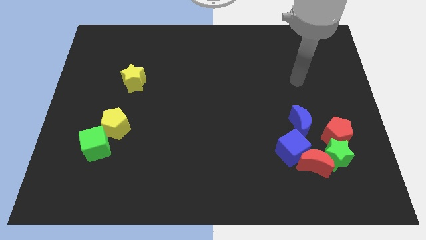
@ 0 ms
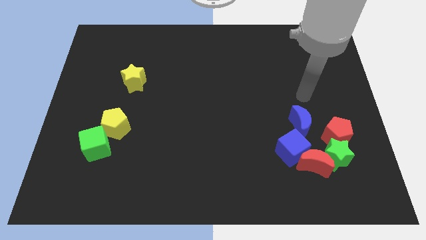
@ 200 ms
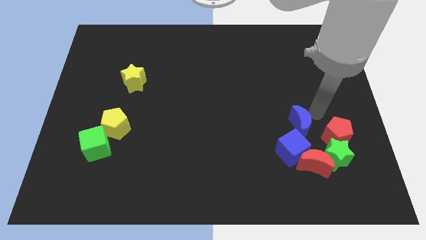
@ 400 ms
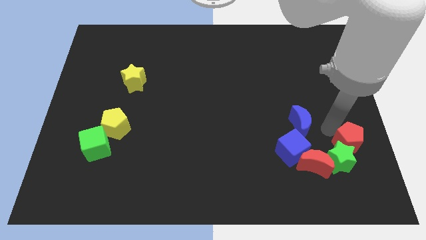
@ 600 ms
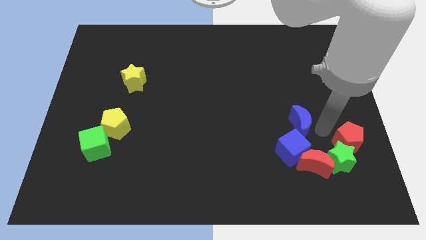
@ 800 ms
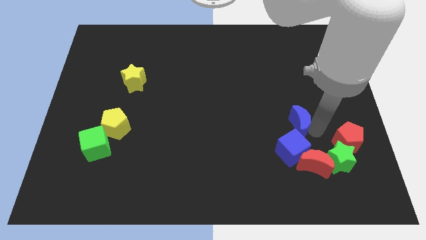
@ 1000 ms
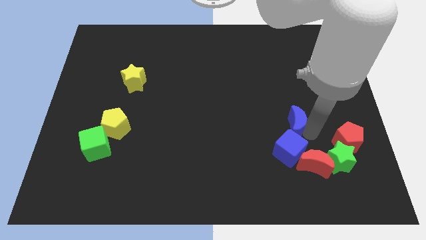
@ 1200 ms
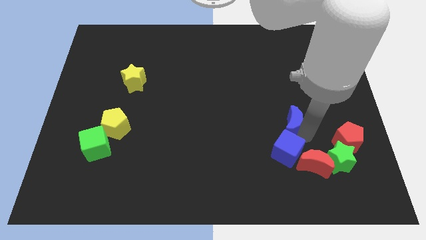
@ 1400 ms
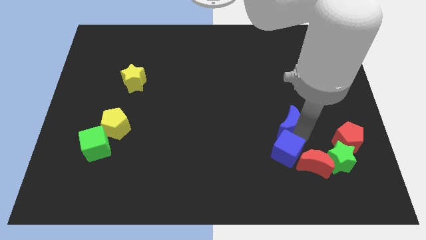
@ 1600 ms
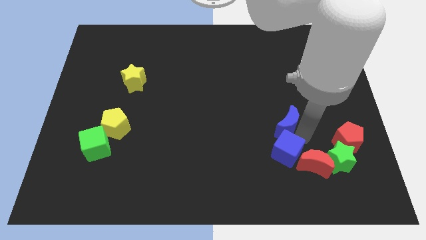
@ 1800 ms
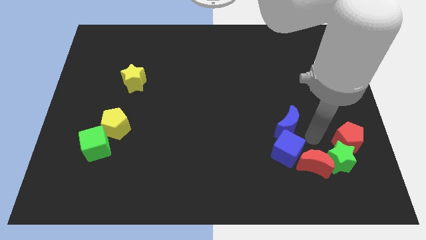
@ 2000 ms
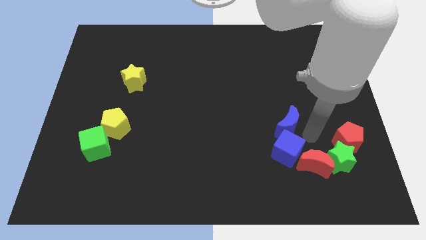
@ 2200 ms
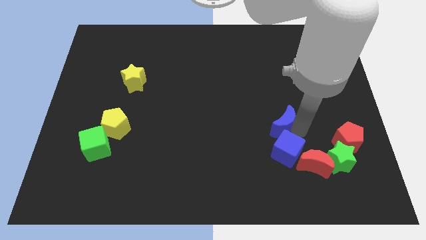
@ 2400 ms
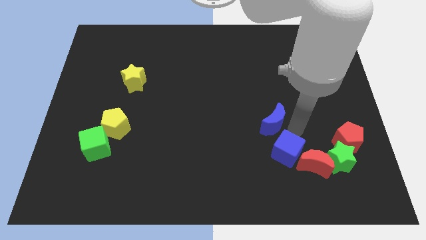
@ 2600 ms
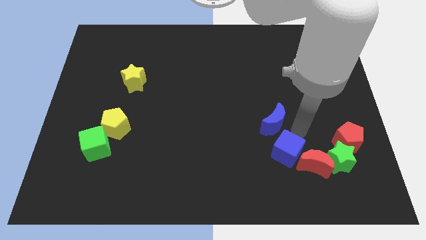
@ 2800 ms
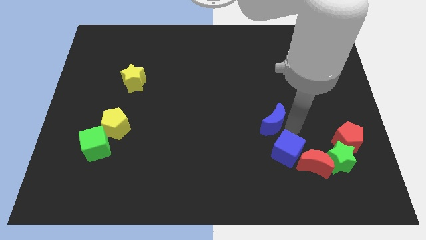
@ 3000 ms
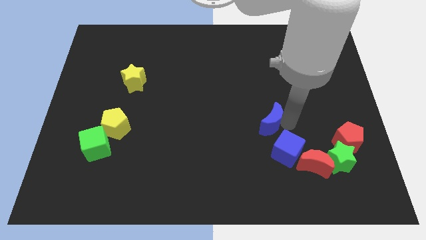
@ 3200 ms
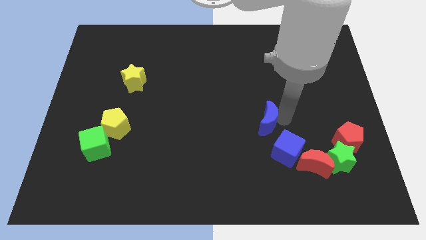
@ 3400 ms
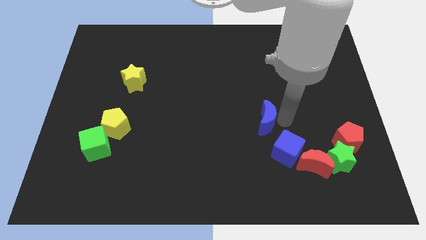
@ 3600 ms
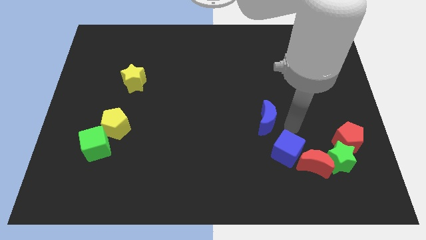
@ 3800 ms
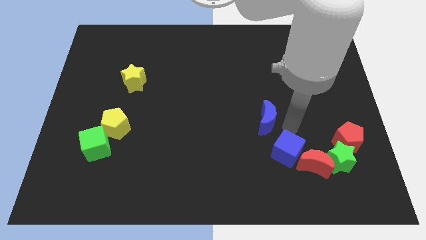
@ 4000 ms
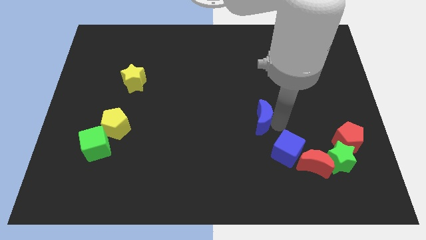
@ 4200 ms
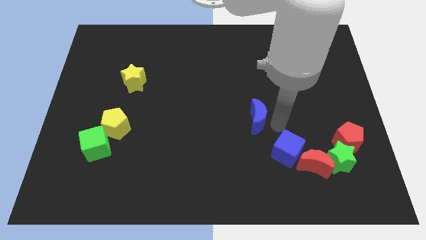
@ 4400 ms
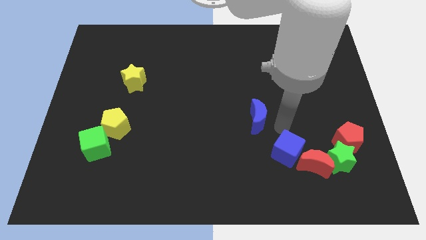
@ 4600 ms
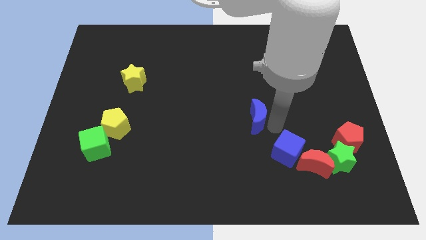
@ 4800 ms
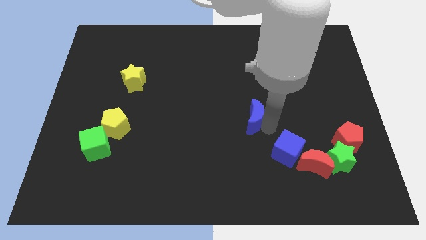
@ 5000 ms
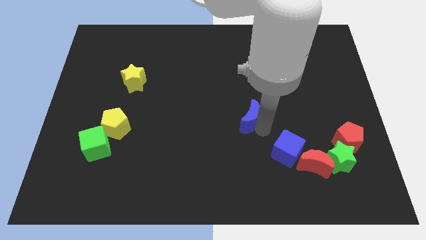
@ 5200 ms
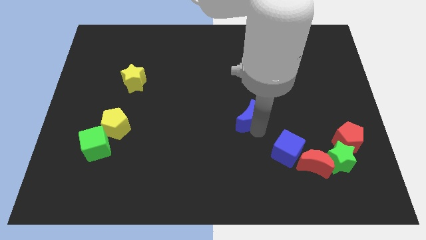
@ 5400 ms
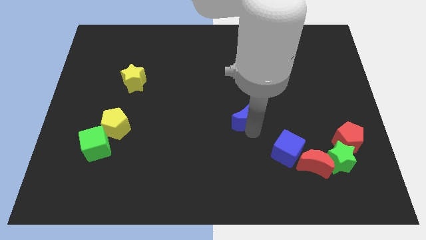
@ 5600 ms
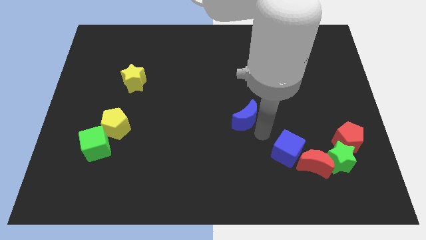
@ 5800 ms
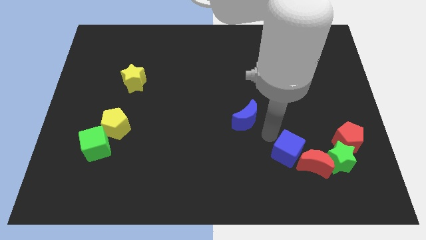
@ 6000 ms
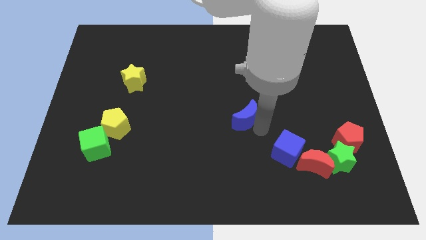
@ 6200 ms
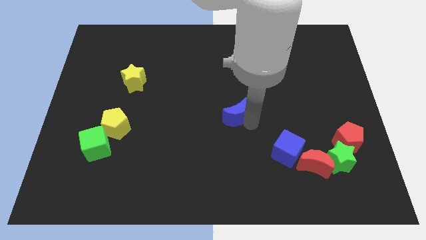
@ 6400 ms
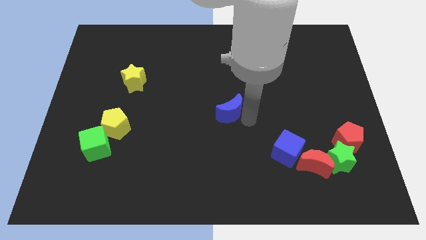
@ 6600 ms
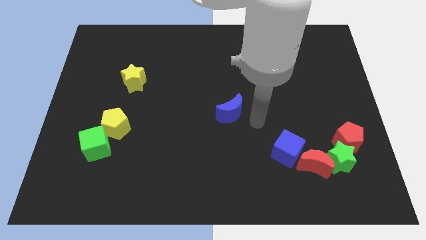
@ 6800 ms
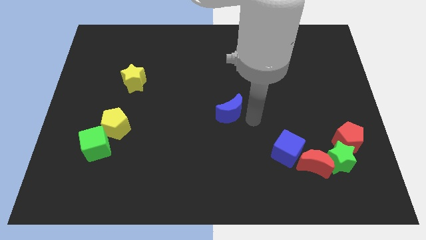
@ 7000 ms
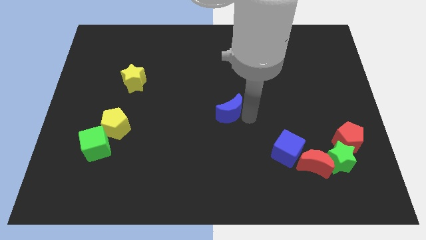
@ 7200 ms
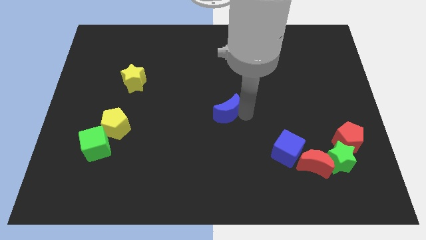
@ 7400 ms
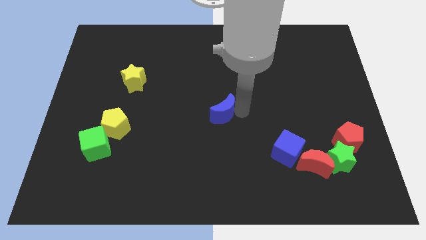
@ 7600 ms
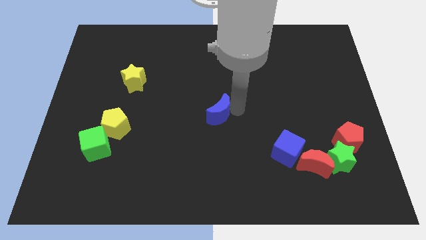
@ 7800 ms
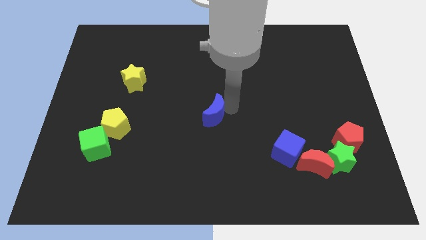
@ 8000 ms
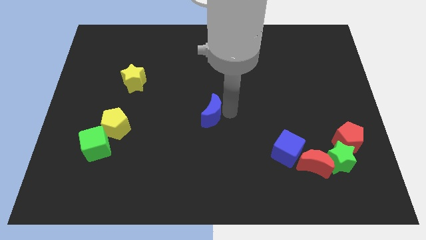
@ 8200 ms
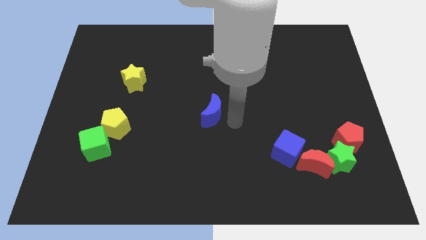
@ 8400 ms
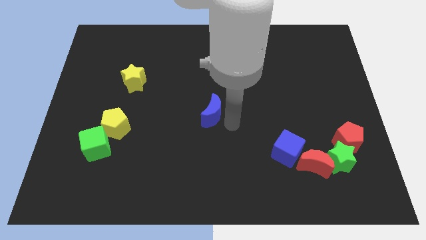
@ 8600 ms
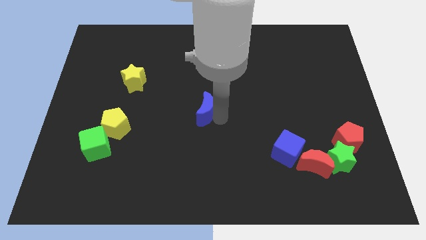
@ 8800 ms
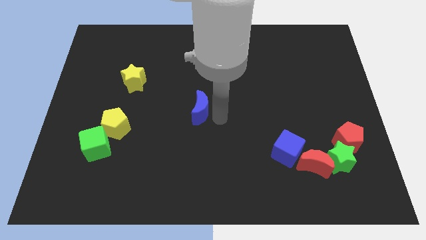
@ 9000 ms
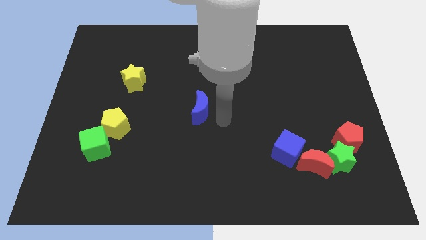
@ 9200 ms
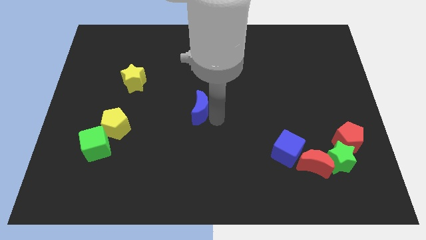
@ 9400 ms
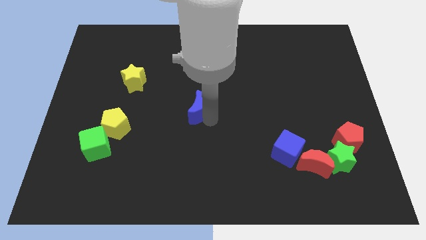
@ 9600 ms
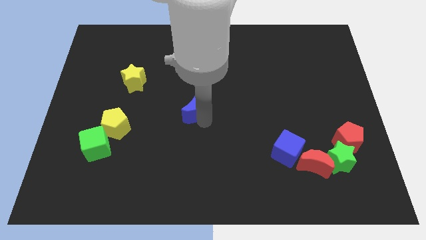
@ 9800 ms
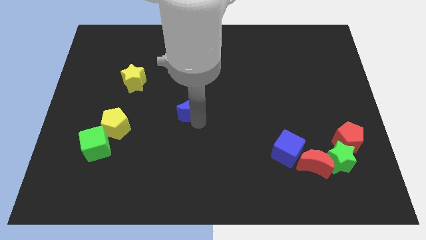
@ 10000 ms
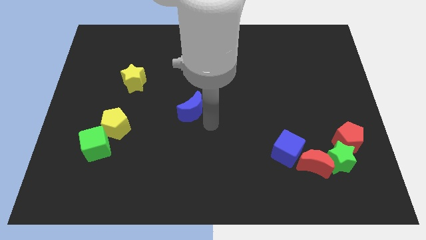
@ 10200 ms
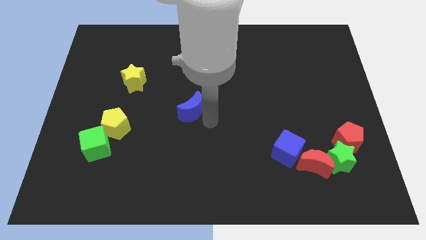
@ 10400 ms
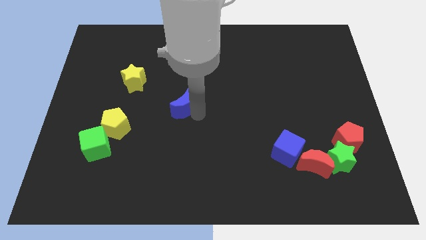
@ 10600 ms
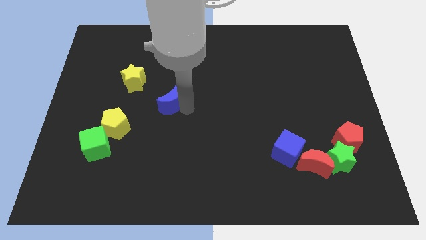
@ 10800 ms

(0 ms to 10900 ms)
move the blue moon to the bottom right of the yellow star

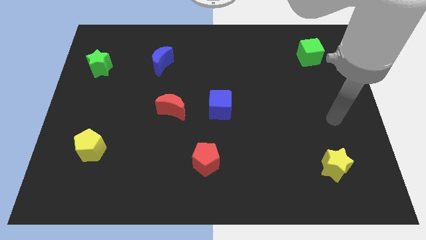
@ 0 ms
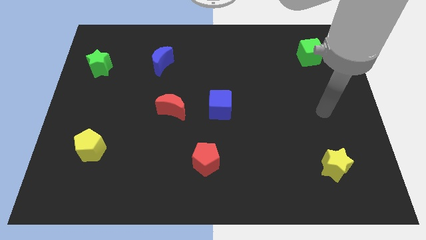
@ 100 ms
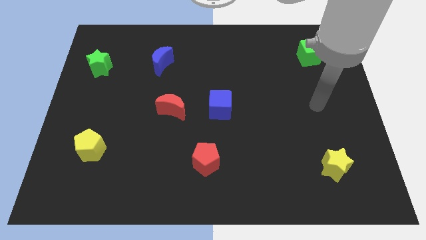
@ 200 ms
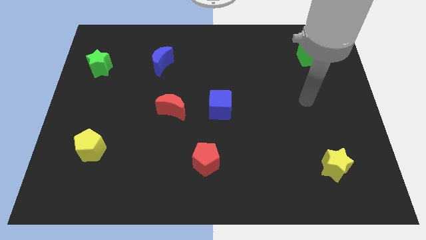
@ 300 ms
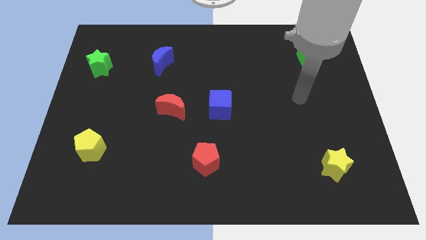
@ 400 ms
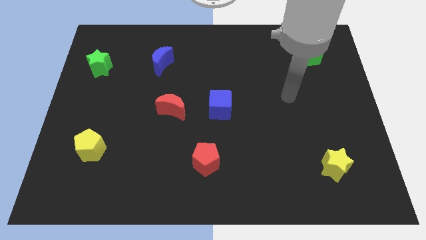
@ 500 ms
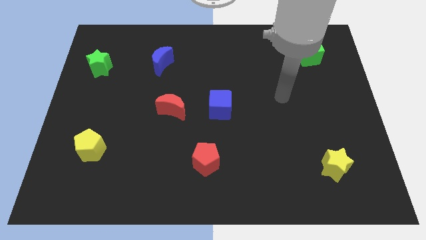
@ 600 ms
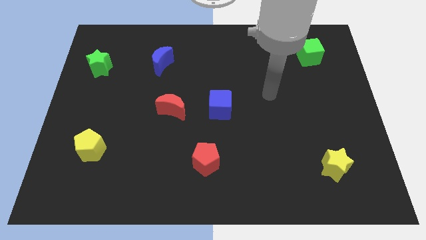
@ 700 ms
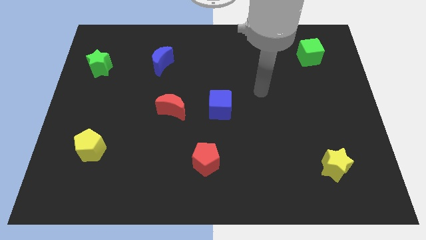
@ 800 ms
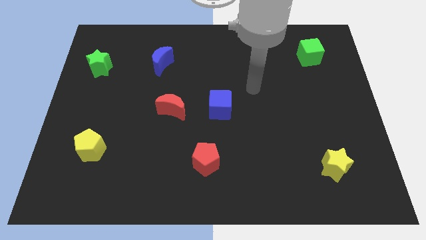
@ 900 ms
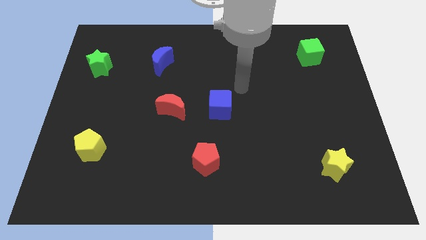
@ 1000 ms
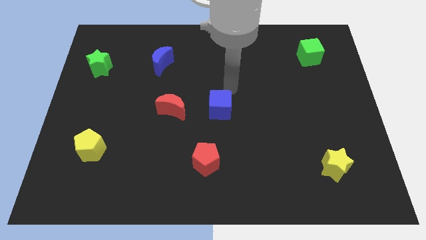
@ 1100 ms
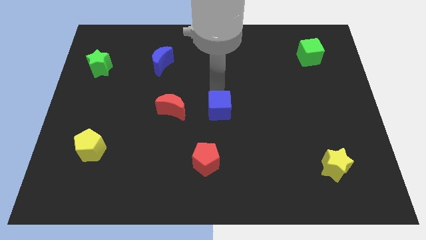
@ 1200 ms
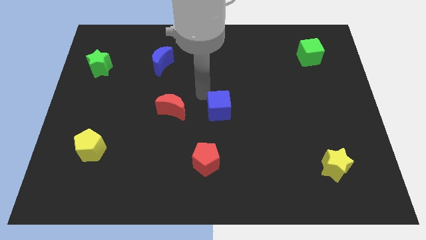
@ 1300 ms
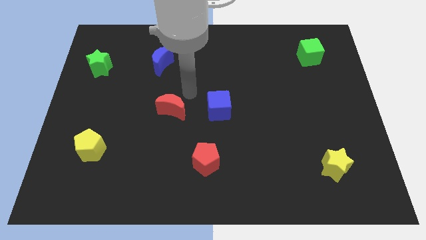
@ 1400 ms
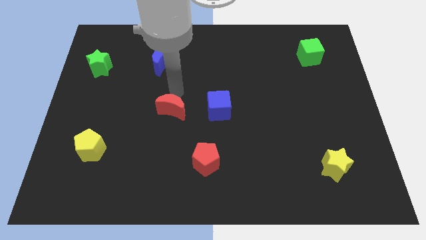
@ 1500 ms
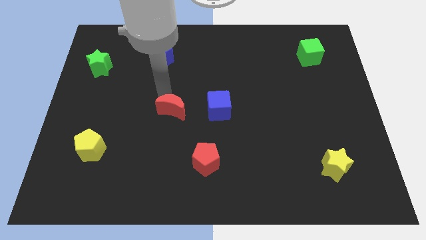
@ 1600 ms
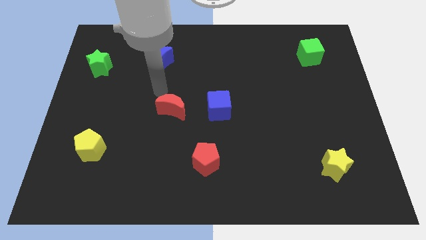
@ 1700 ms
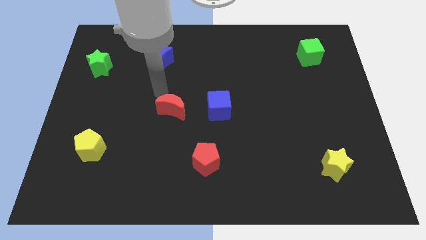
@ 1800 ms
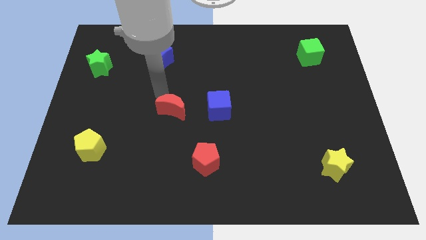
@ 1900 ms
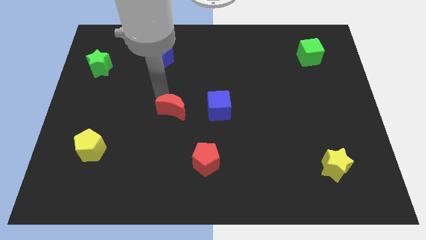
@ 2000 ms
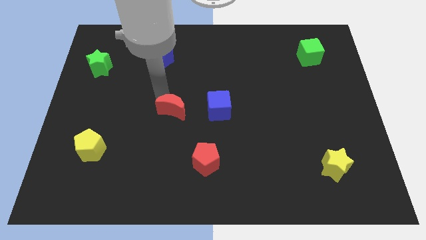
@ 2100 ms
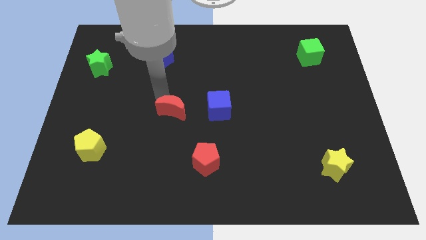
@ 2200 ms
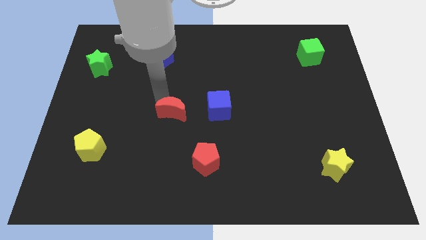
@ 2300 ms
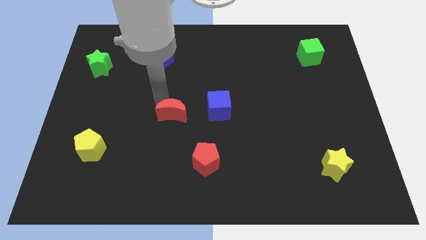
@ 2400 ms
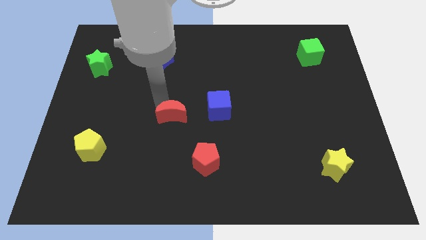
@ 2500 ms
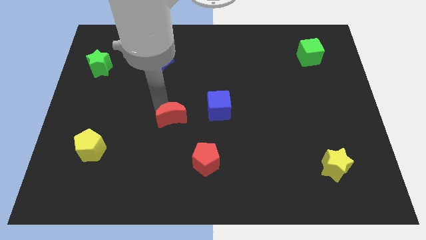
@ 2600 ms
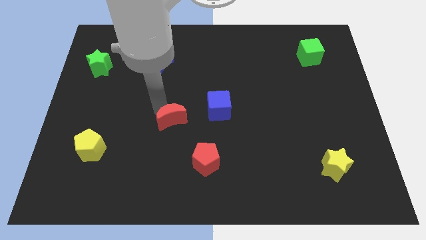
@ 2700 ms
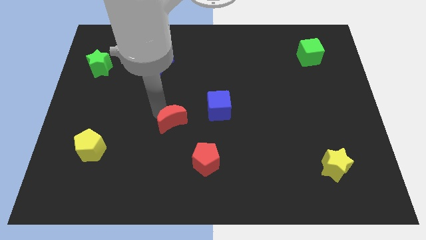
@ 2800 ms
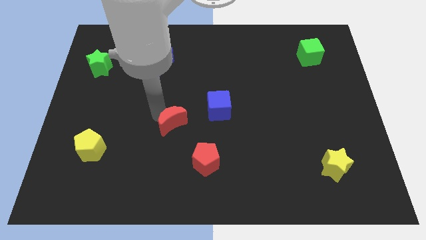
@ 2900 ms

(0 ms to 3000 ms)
push the red moon diagonally up and to the left of the red pentagon
